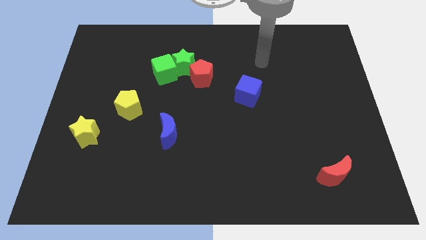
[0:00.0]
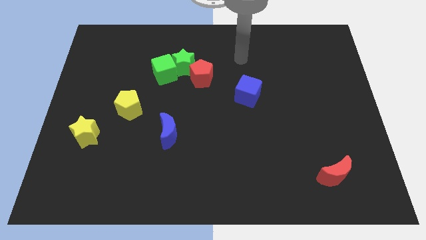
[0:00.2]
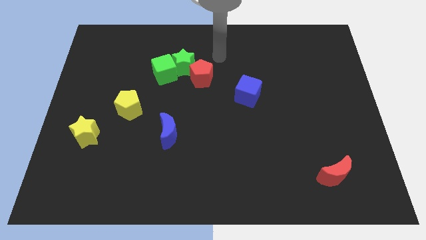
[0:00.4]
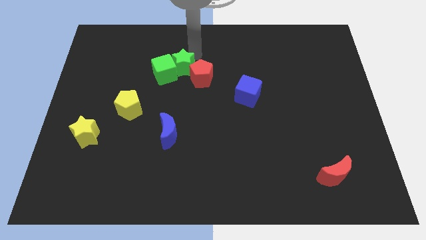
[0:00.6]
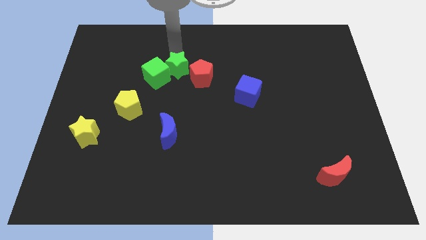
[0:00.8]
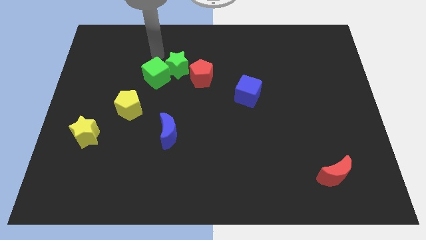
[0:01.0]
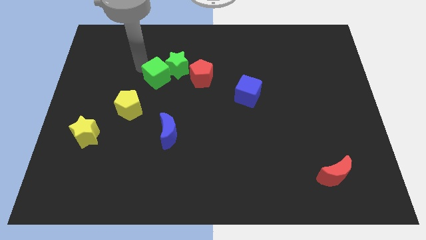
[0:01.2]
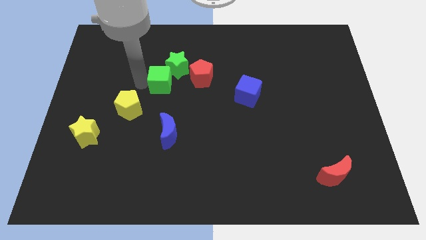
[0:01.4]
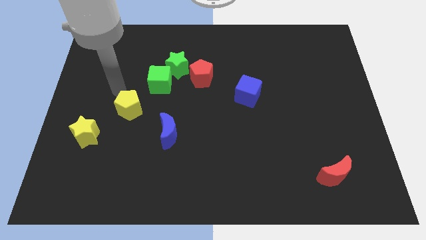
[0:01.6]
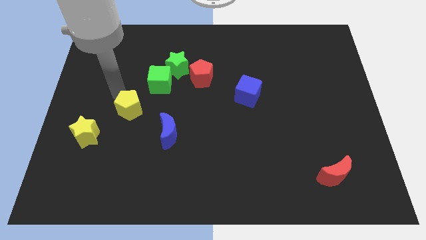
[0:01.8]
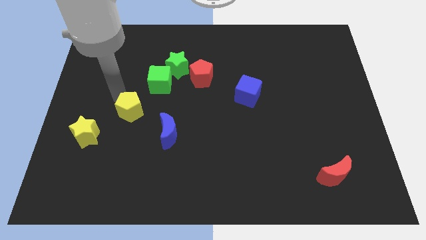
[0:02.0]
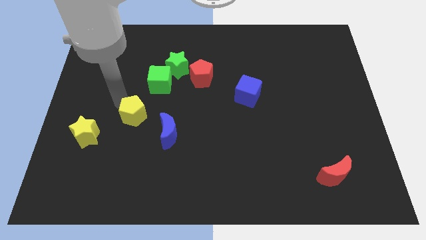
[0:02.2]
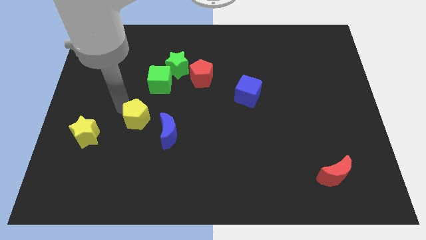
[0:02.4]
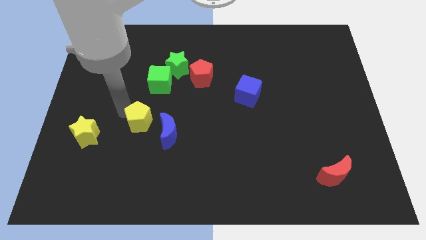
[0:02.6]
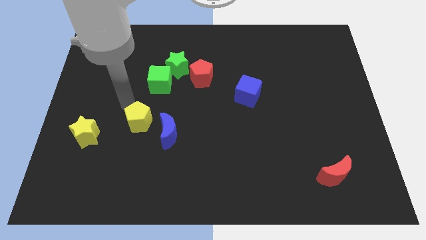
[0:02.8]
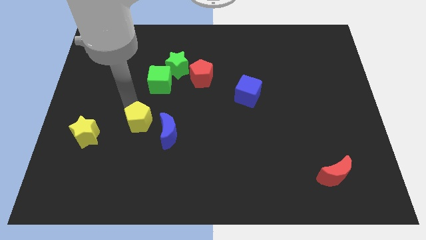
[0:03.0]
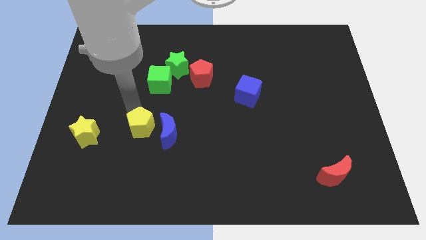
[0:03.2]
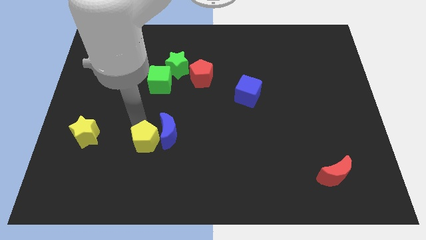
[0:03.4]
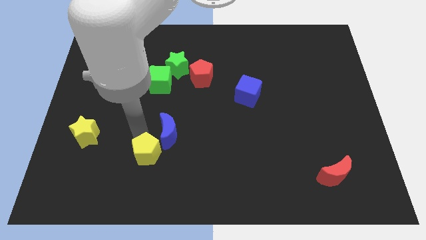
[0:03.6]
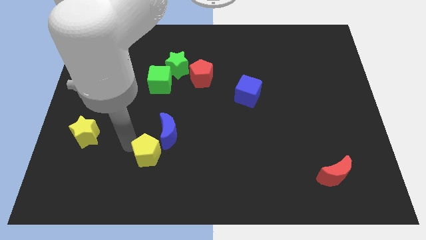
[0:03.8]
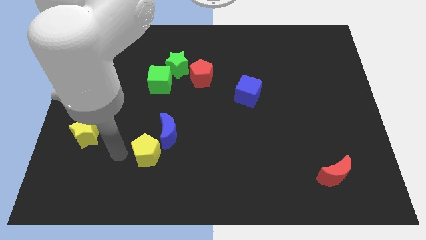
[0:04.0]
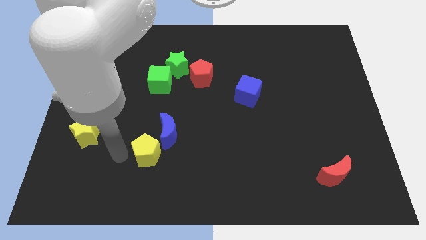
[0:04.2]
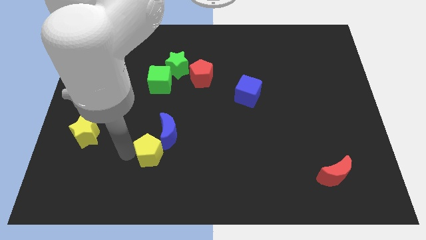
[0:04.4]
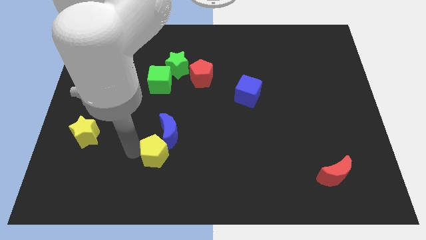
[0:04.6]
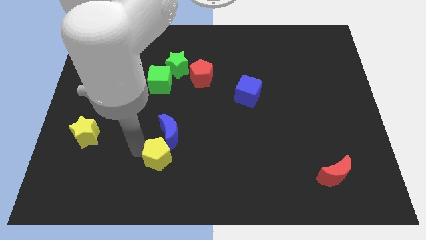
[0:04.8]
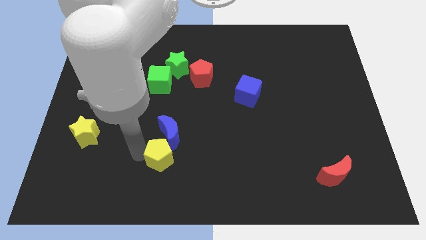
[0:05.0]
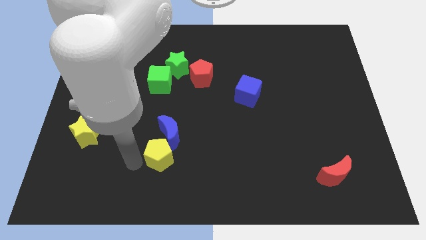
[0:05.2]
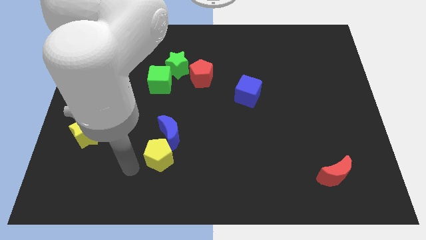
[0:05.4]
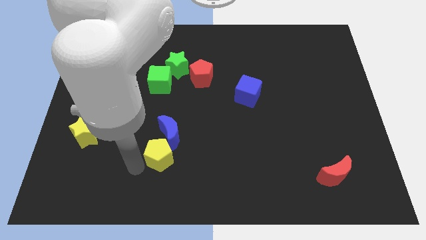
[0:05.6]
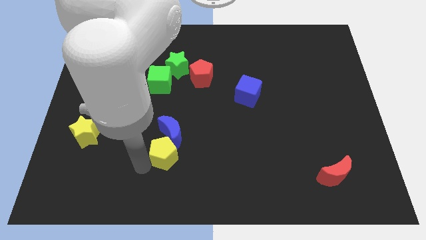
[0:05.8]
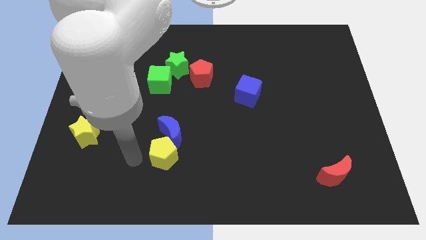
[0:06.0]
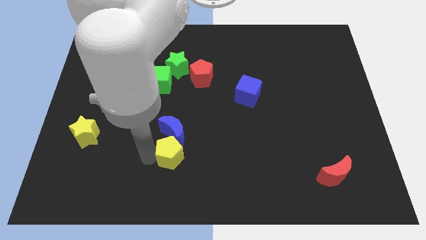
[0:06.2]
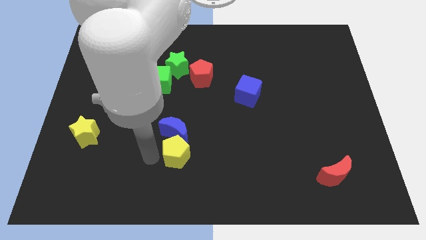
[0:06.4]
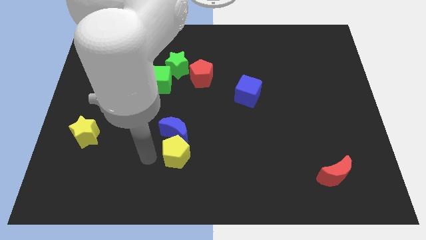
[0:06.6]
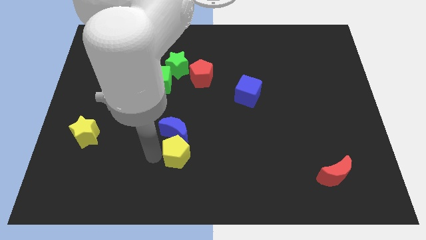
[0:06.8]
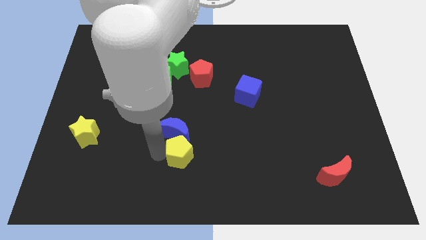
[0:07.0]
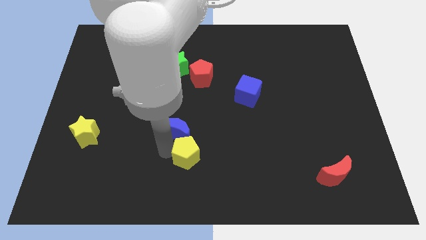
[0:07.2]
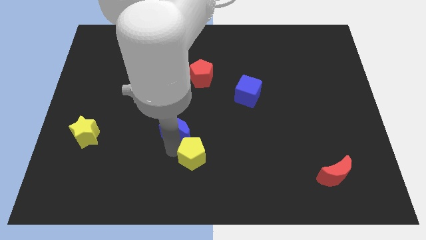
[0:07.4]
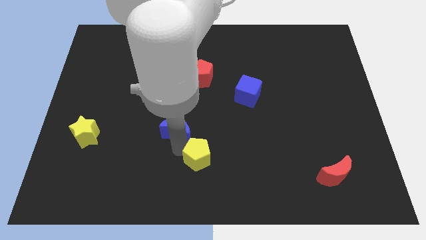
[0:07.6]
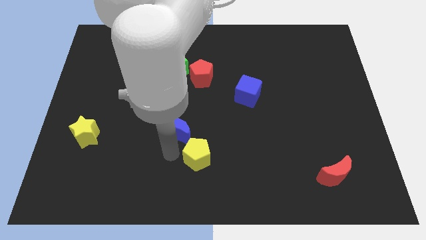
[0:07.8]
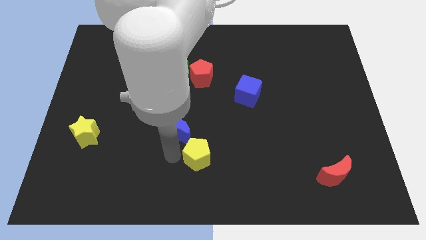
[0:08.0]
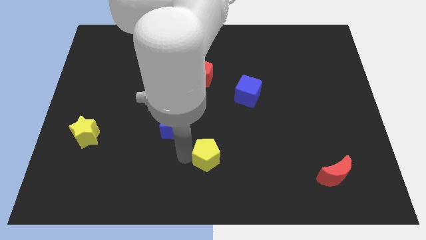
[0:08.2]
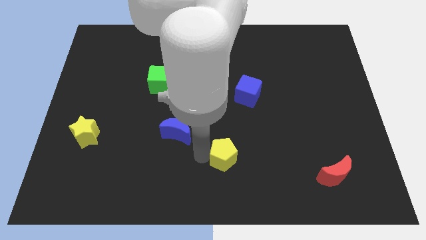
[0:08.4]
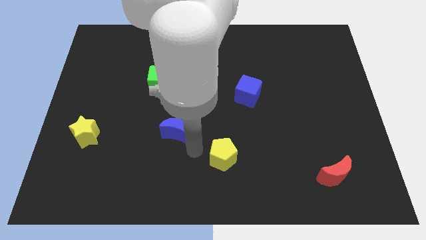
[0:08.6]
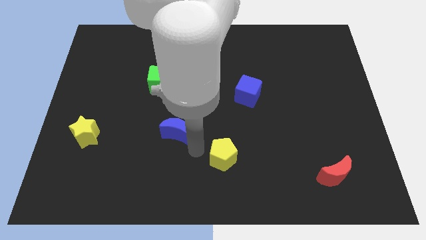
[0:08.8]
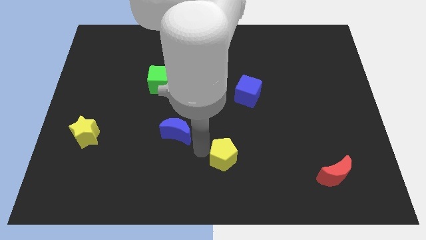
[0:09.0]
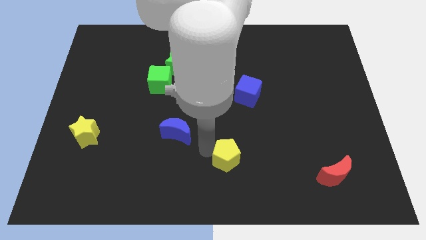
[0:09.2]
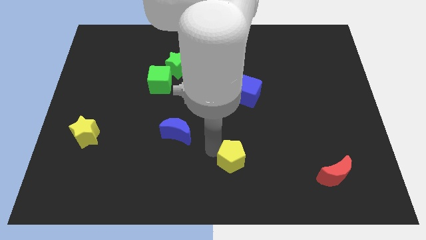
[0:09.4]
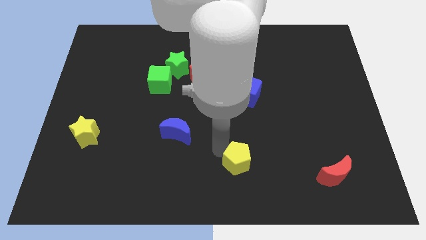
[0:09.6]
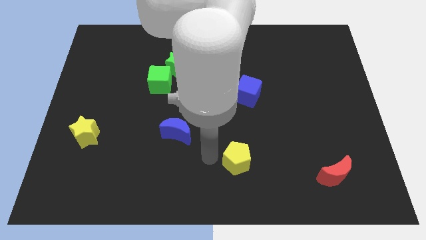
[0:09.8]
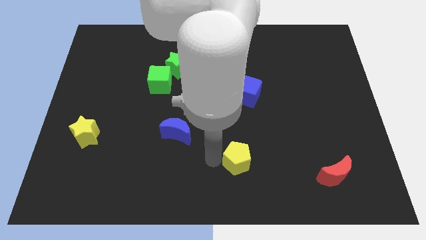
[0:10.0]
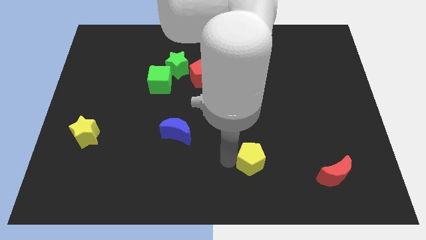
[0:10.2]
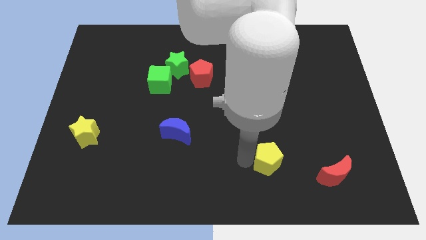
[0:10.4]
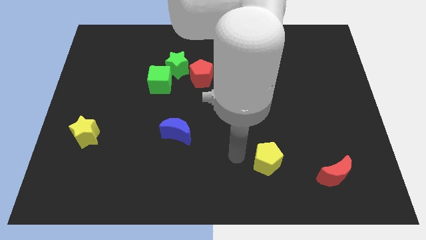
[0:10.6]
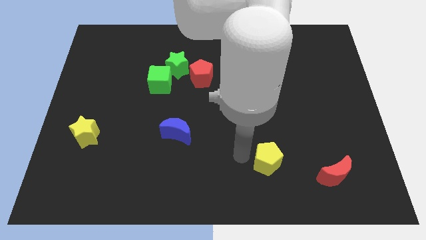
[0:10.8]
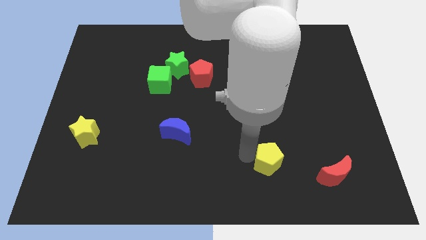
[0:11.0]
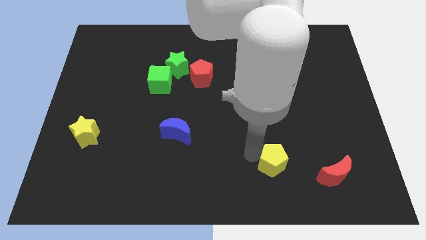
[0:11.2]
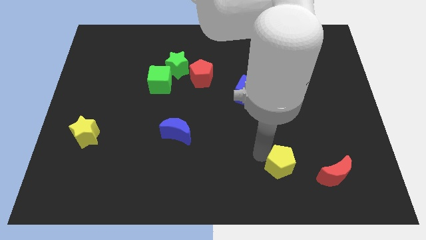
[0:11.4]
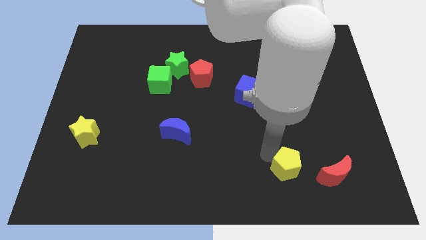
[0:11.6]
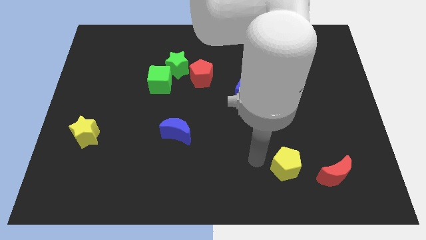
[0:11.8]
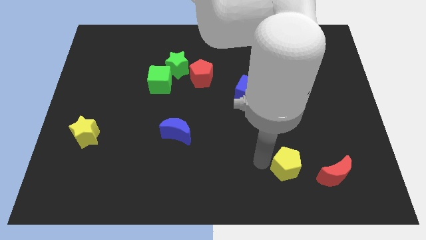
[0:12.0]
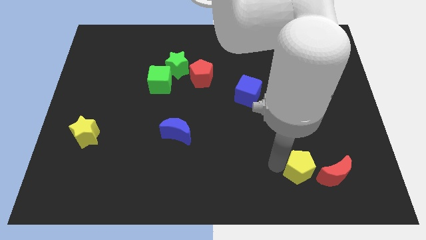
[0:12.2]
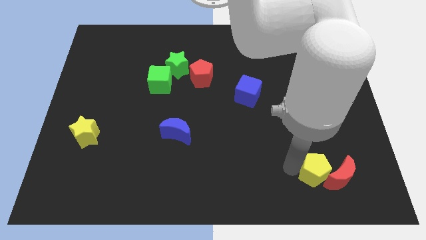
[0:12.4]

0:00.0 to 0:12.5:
push the yellow pentagon towards the red moon

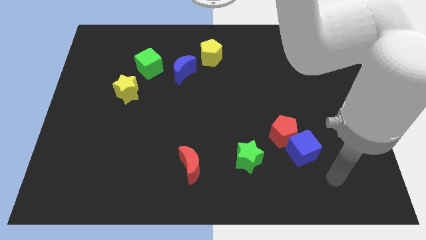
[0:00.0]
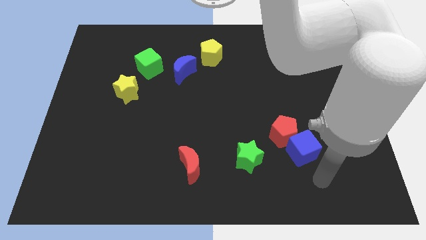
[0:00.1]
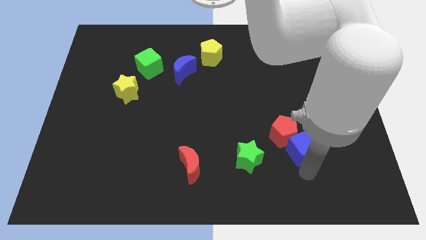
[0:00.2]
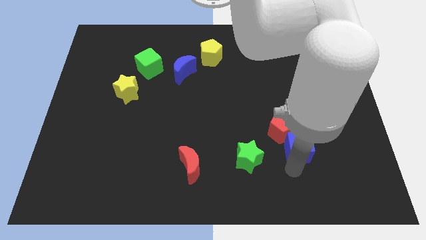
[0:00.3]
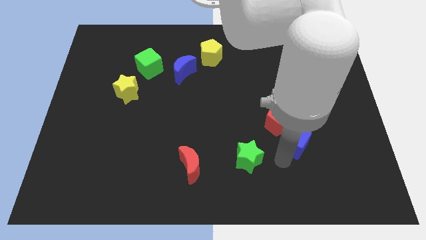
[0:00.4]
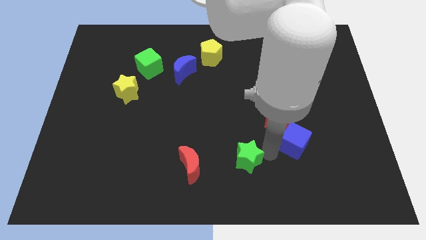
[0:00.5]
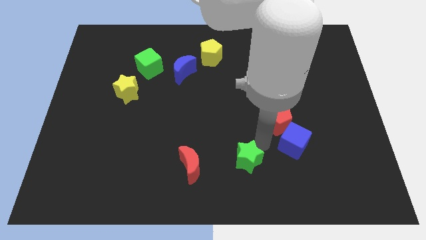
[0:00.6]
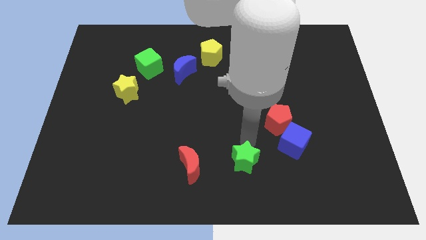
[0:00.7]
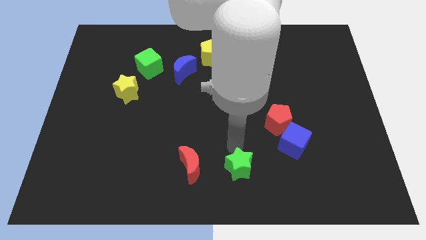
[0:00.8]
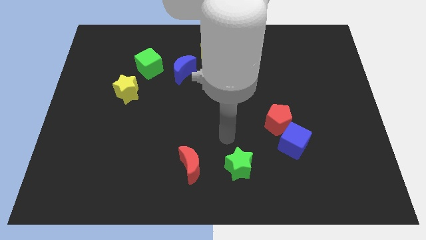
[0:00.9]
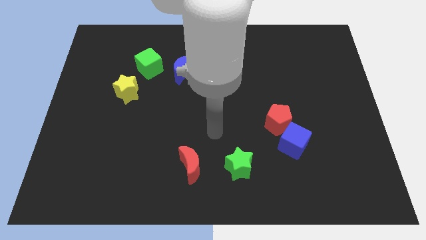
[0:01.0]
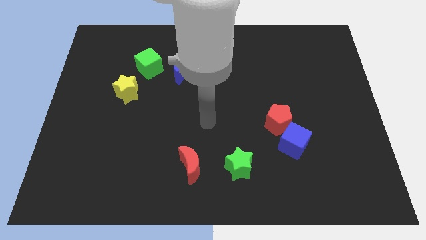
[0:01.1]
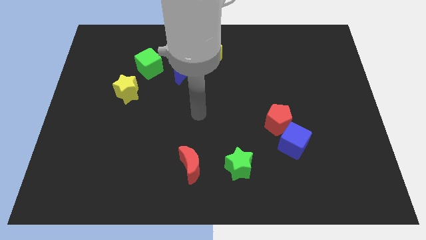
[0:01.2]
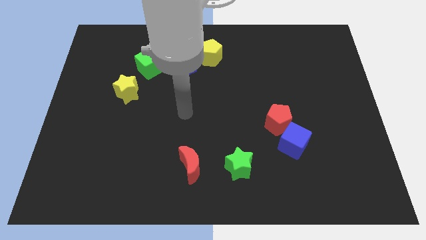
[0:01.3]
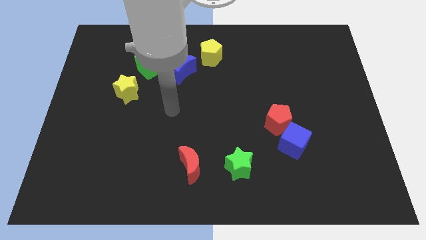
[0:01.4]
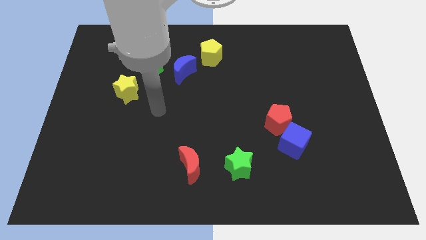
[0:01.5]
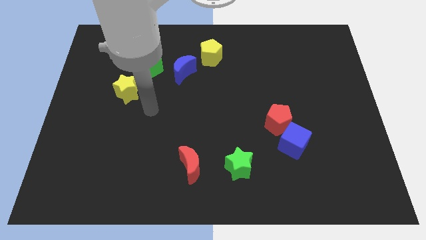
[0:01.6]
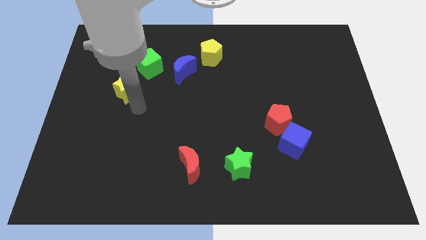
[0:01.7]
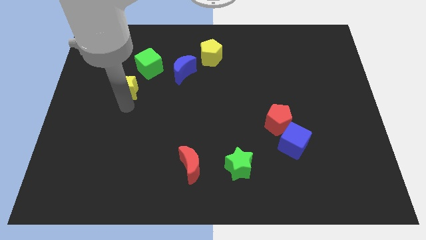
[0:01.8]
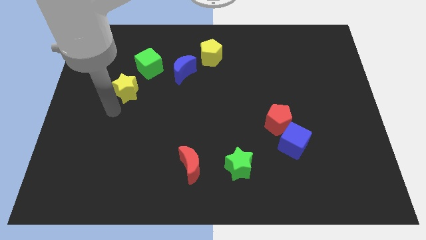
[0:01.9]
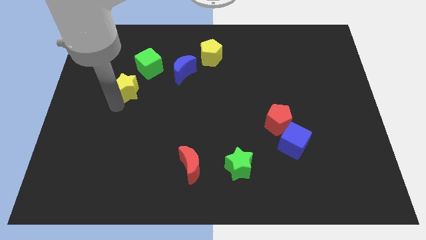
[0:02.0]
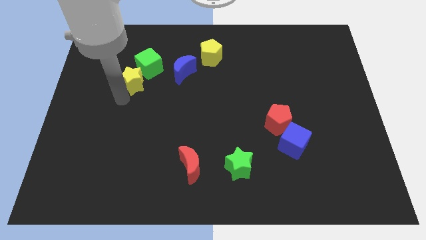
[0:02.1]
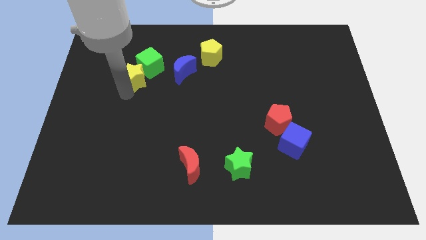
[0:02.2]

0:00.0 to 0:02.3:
put the yellow star next to the green cube
